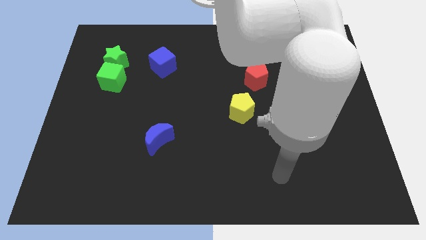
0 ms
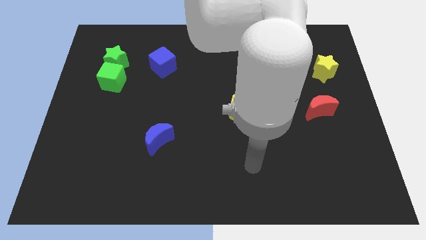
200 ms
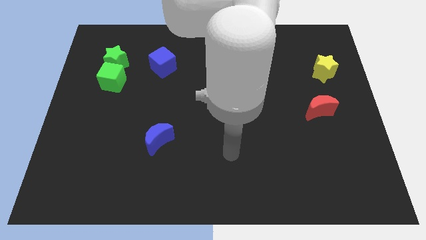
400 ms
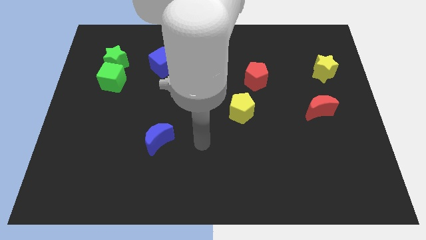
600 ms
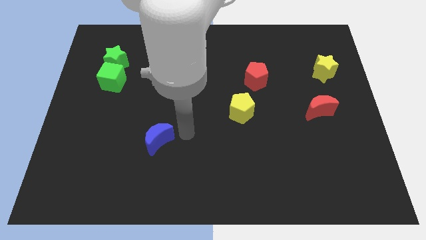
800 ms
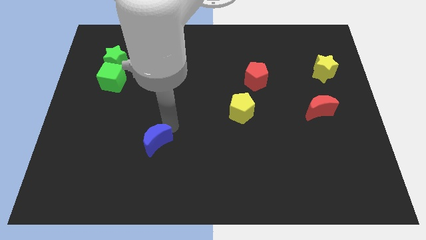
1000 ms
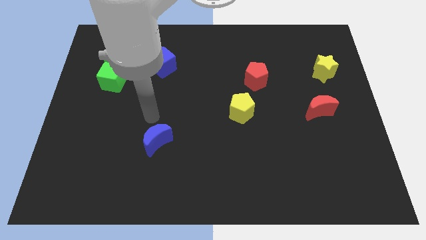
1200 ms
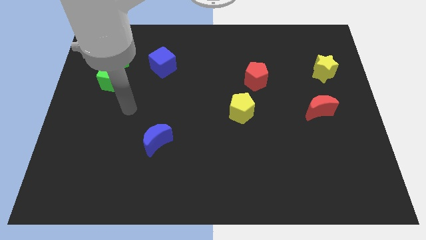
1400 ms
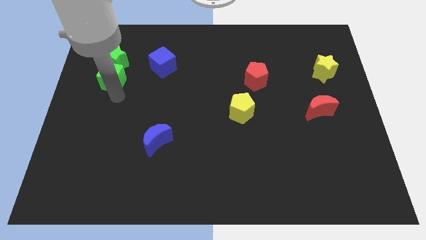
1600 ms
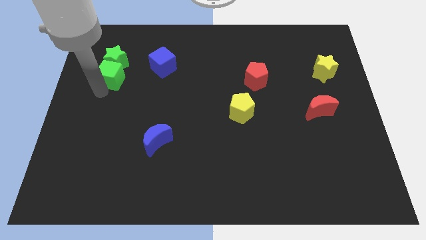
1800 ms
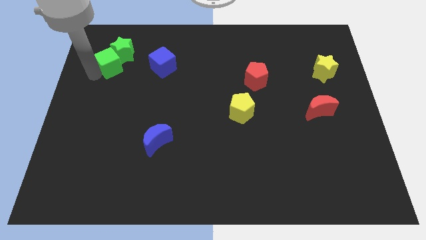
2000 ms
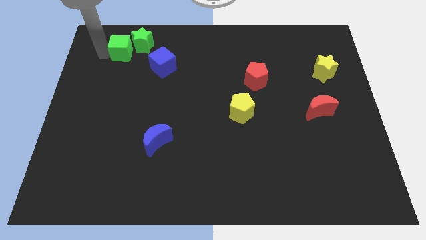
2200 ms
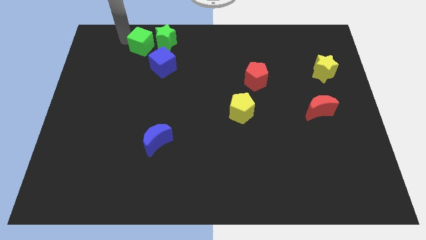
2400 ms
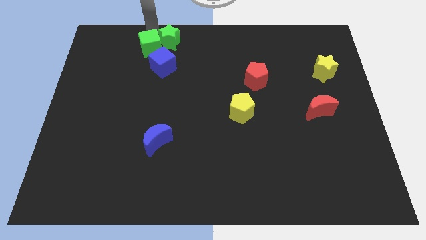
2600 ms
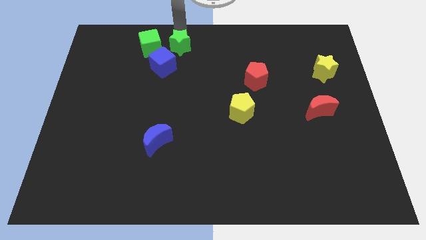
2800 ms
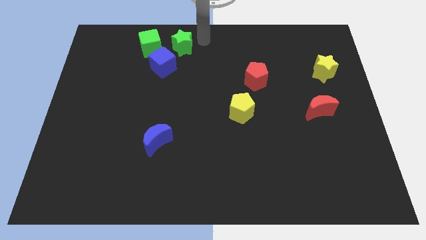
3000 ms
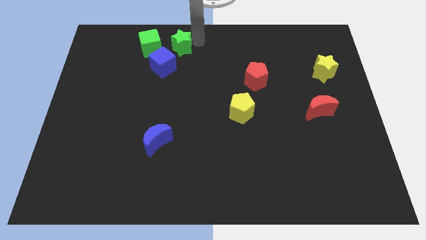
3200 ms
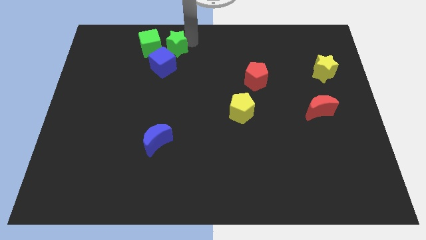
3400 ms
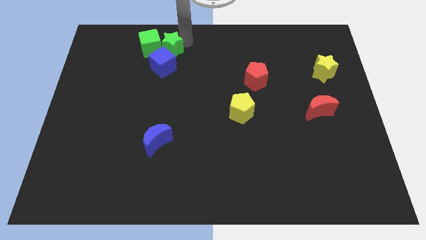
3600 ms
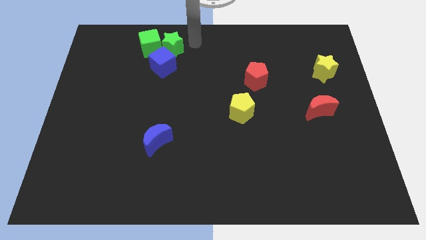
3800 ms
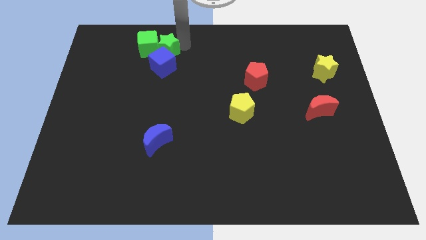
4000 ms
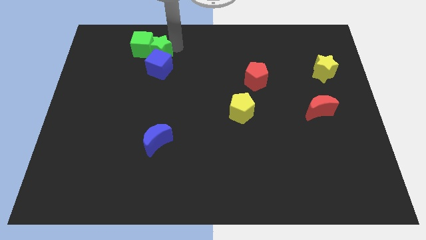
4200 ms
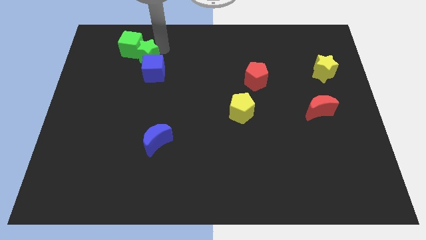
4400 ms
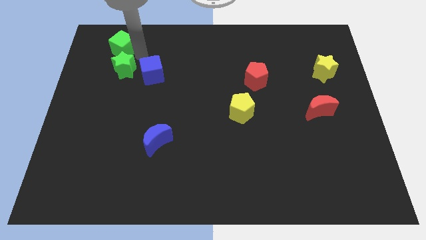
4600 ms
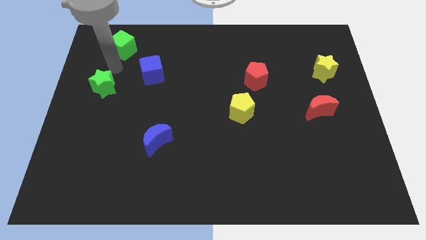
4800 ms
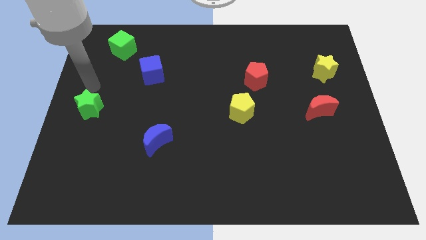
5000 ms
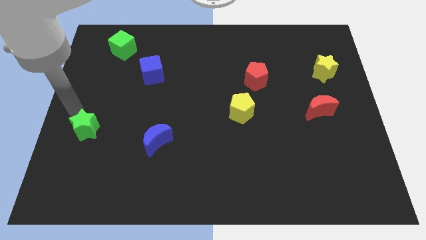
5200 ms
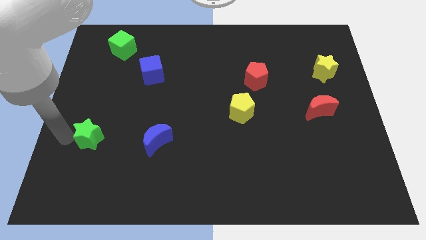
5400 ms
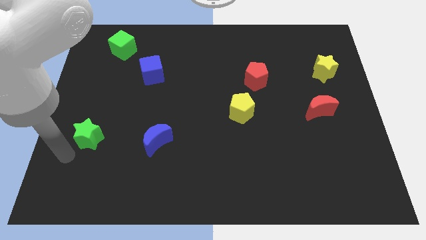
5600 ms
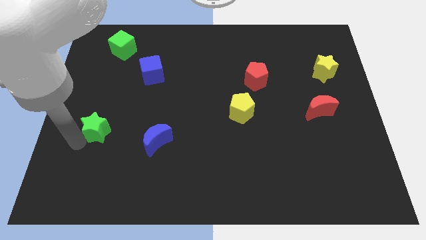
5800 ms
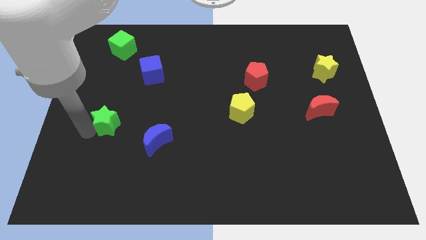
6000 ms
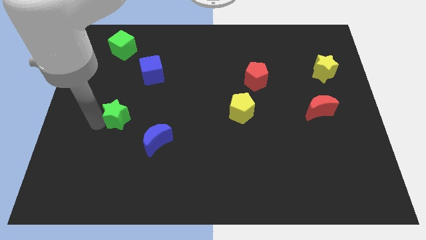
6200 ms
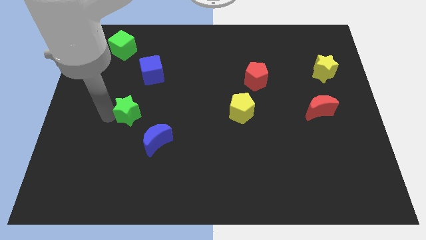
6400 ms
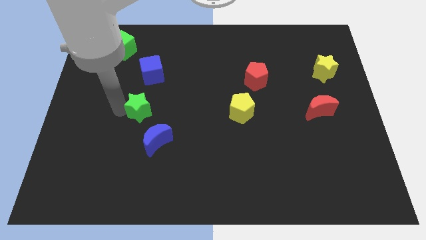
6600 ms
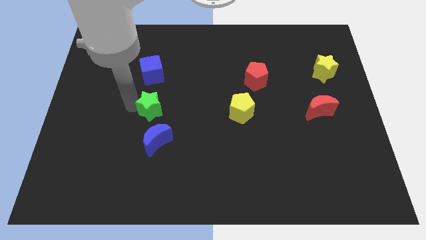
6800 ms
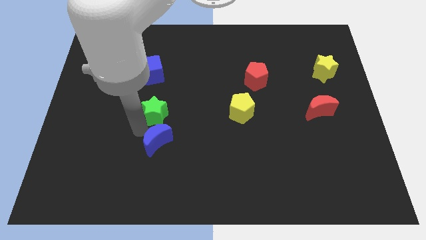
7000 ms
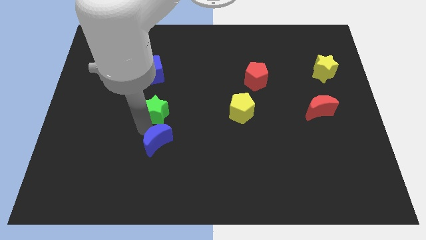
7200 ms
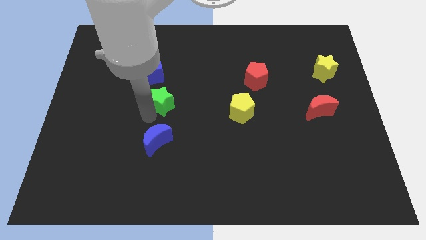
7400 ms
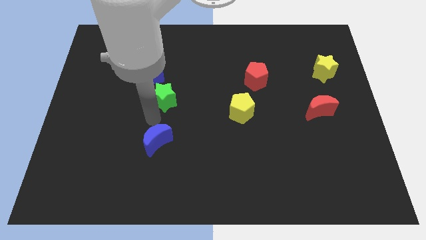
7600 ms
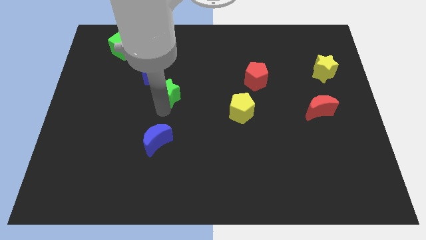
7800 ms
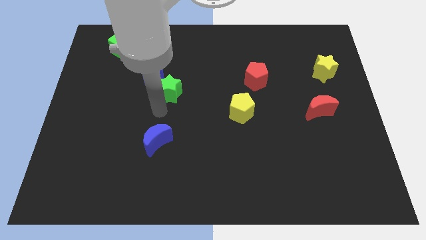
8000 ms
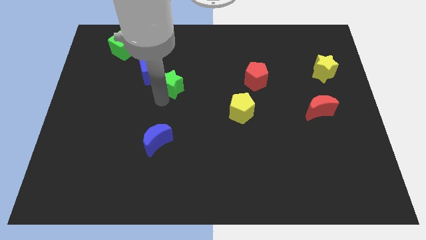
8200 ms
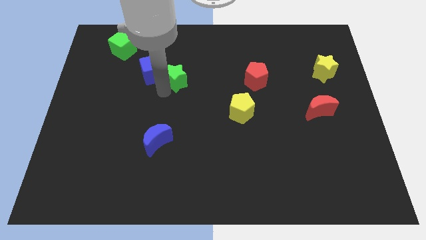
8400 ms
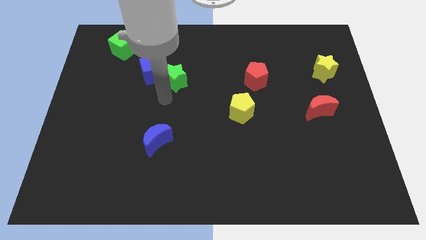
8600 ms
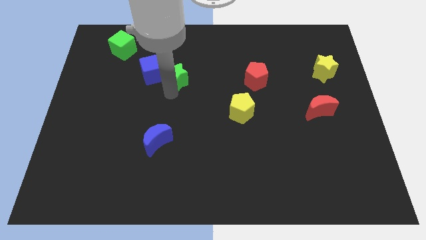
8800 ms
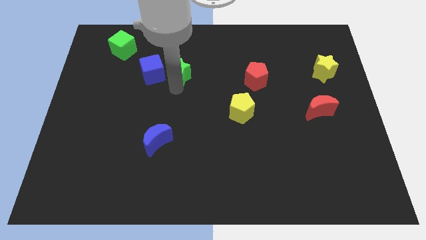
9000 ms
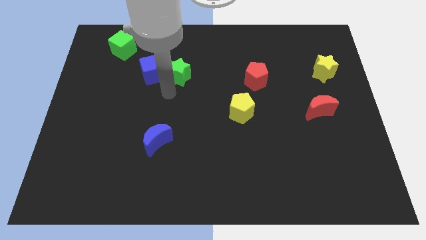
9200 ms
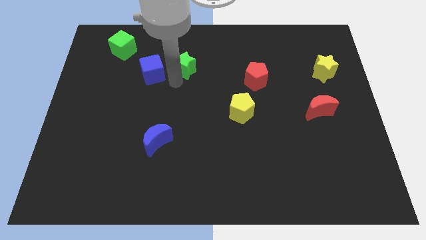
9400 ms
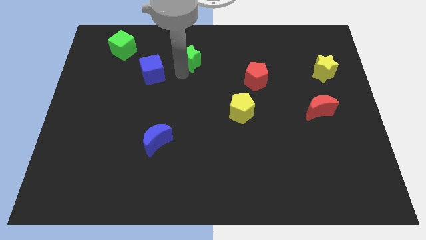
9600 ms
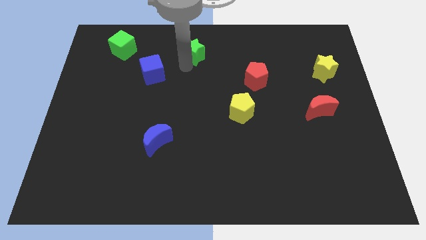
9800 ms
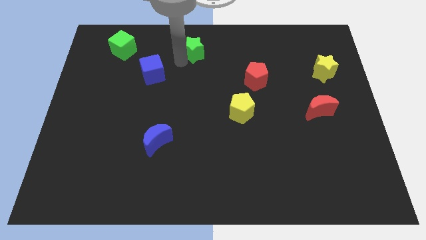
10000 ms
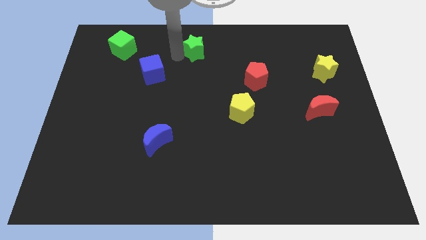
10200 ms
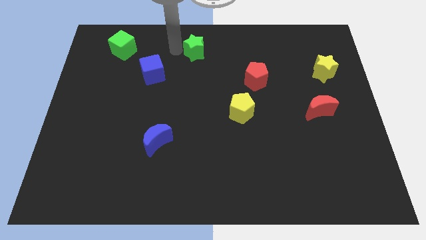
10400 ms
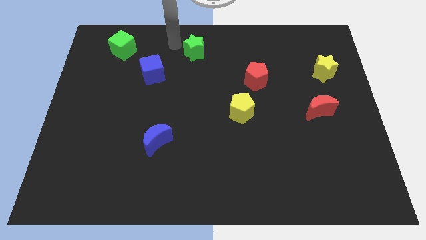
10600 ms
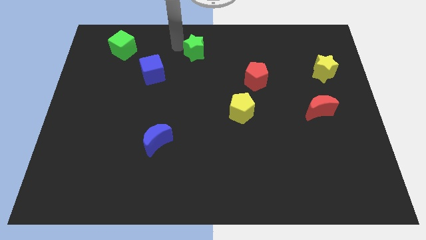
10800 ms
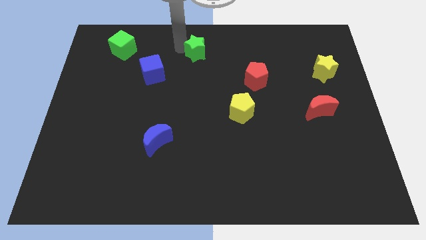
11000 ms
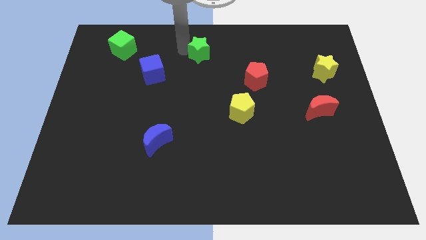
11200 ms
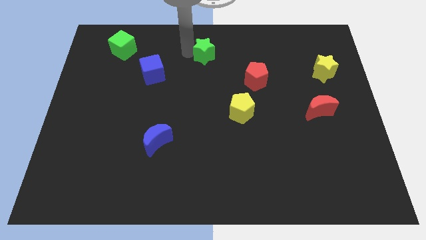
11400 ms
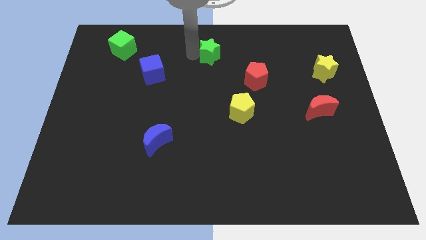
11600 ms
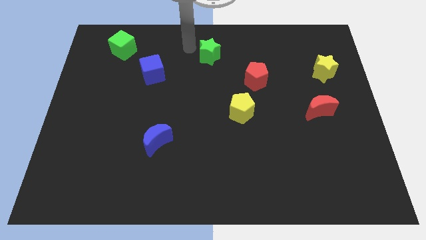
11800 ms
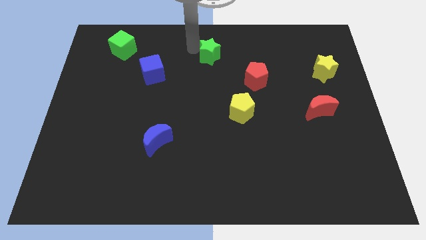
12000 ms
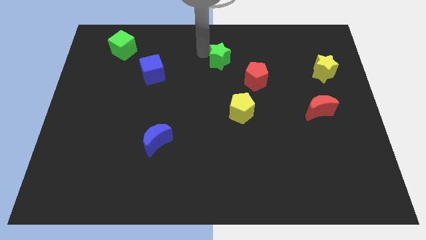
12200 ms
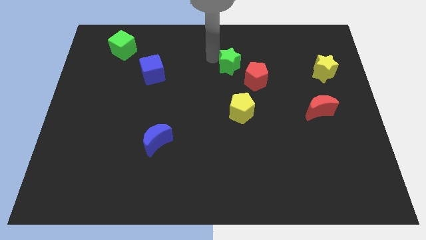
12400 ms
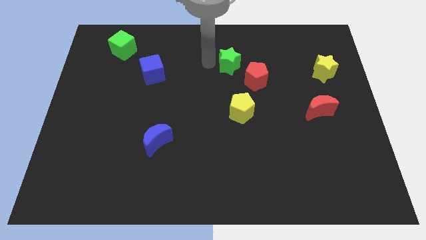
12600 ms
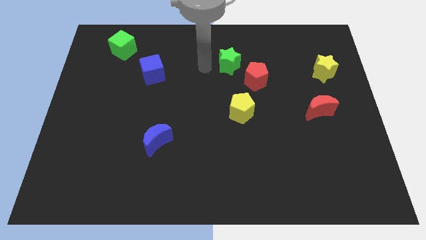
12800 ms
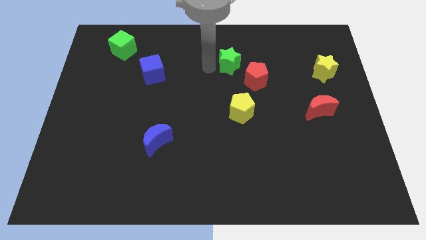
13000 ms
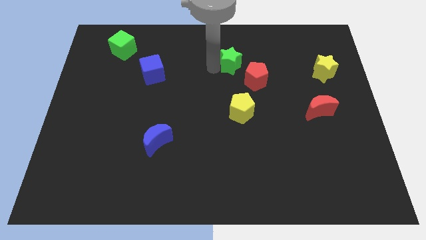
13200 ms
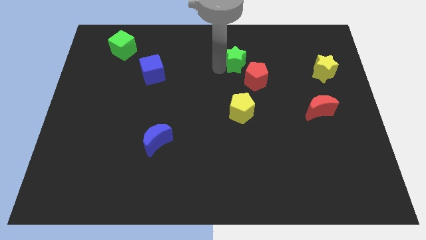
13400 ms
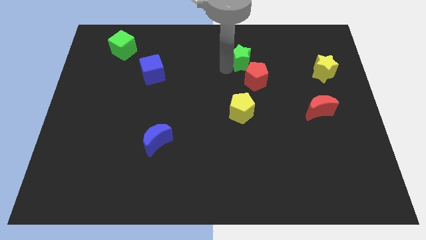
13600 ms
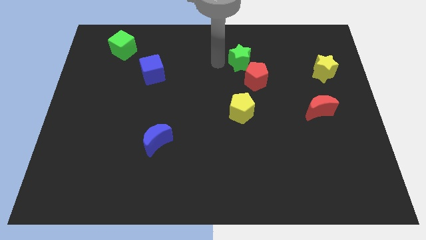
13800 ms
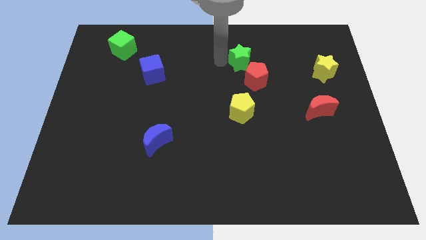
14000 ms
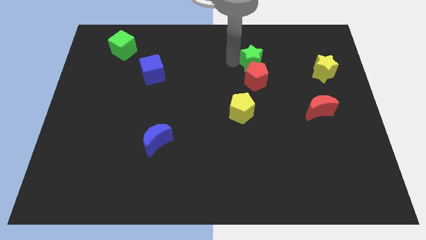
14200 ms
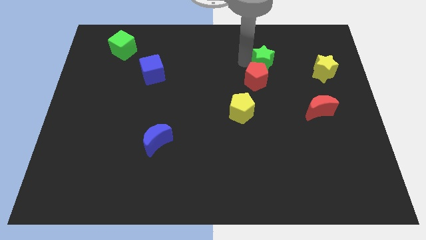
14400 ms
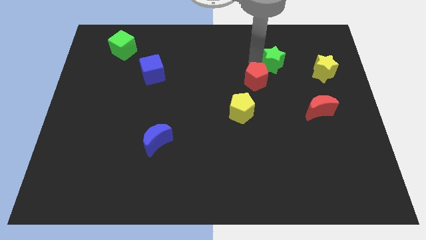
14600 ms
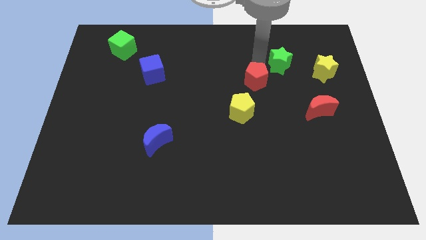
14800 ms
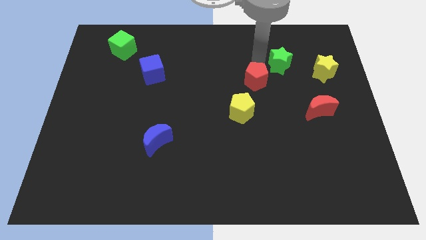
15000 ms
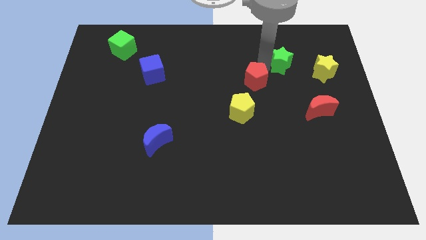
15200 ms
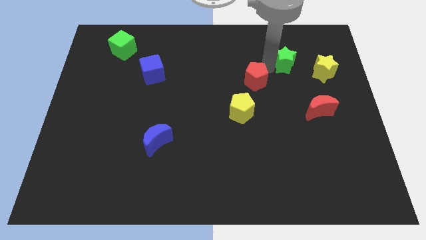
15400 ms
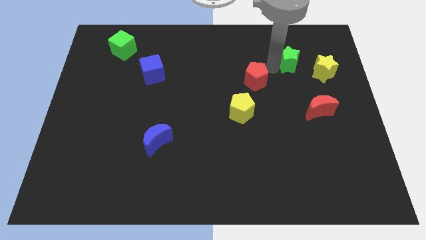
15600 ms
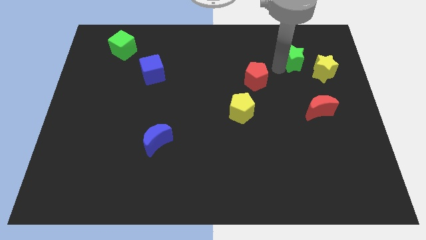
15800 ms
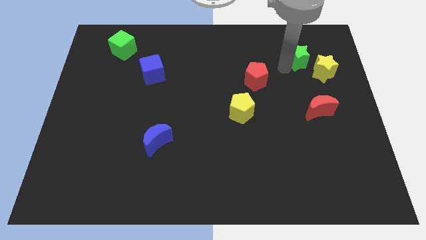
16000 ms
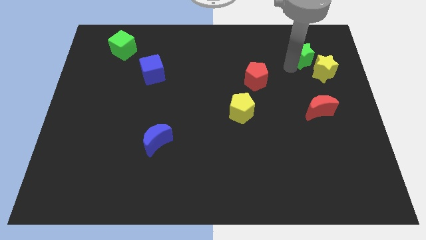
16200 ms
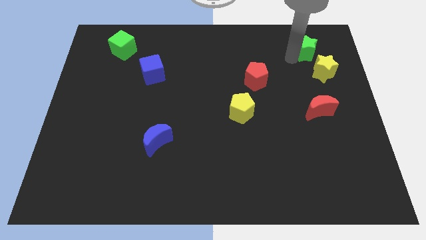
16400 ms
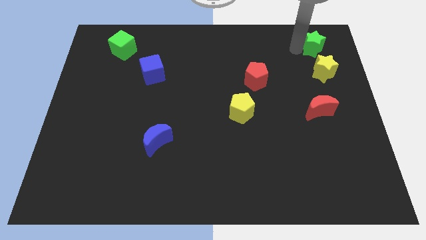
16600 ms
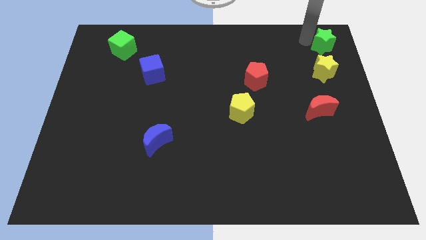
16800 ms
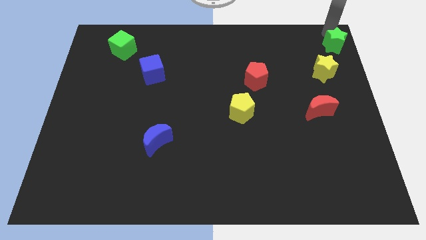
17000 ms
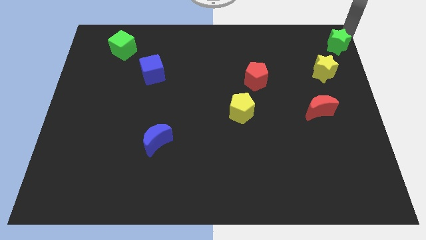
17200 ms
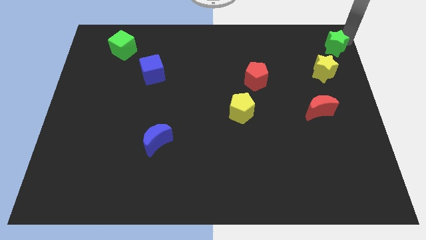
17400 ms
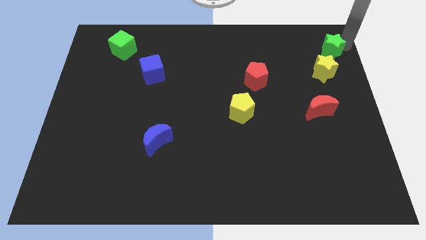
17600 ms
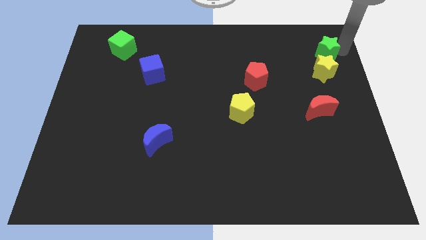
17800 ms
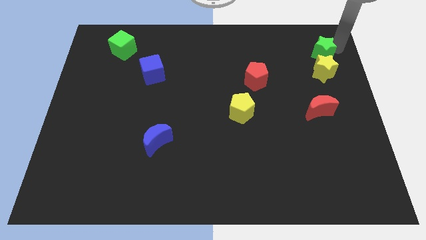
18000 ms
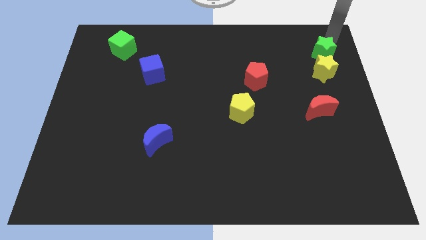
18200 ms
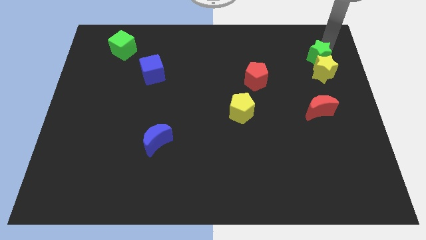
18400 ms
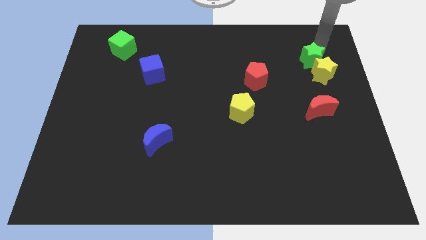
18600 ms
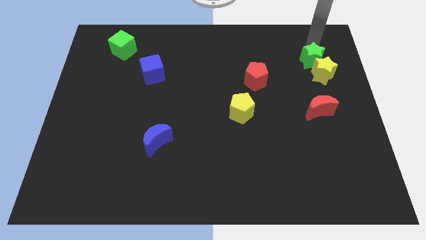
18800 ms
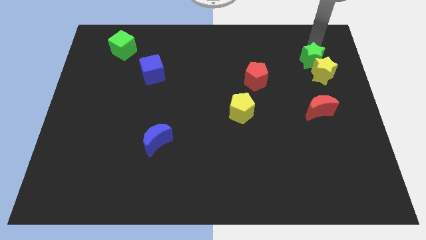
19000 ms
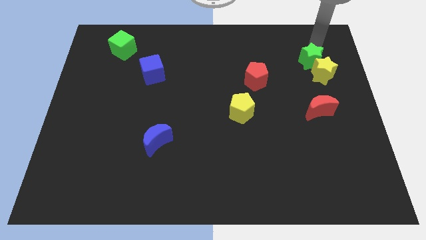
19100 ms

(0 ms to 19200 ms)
push the green star to the top of the red moon
